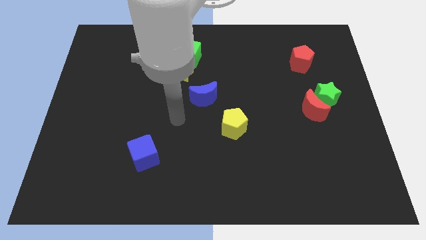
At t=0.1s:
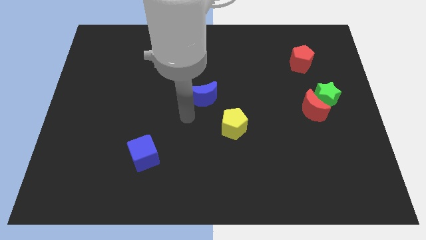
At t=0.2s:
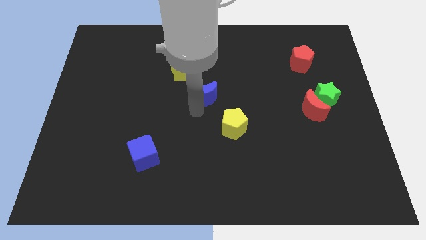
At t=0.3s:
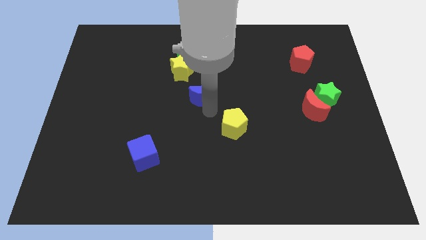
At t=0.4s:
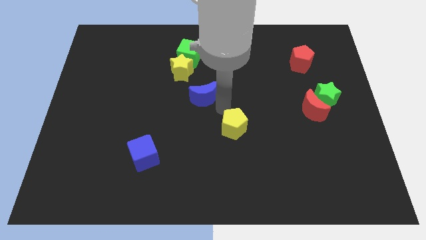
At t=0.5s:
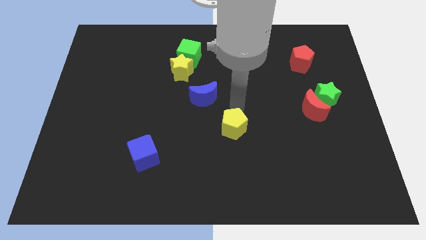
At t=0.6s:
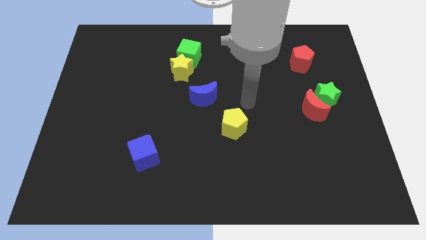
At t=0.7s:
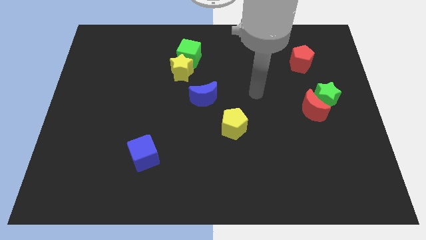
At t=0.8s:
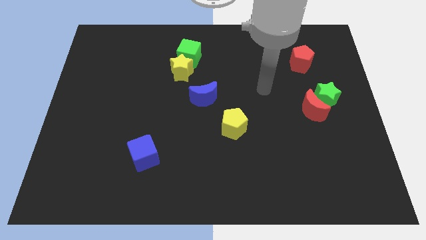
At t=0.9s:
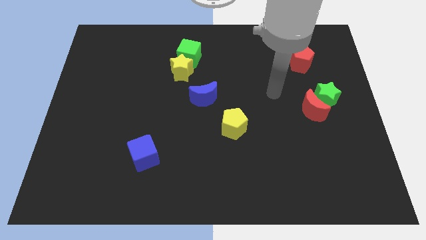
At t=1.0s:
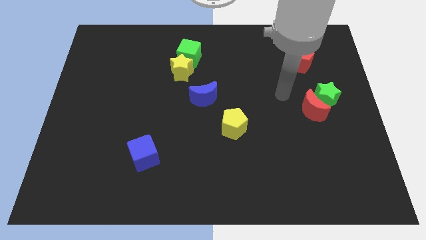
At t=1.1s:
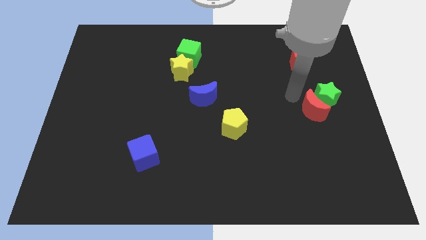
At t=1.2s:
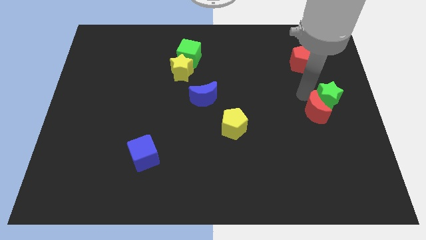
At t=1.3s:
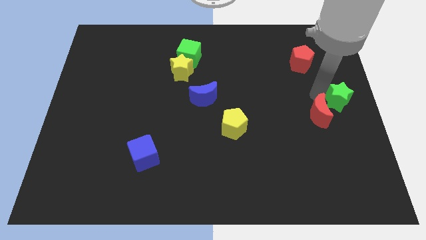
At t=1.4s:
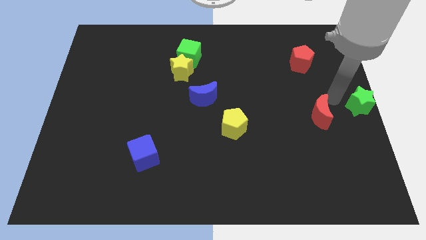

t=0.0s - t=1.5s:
move the red moon away from the green star

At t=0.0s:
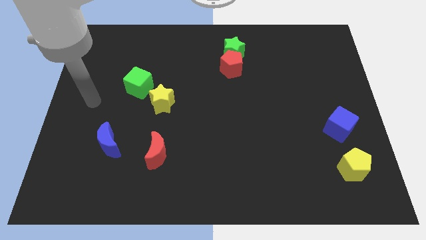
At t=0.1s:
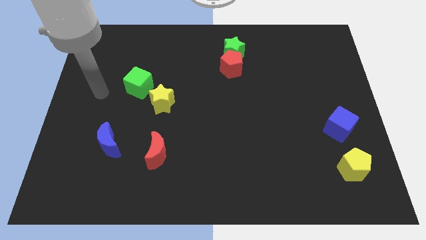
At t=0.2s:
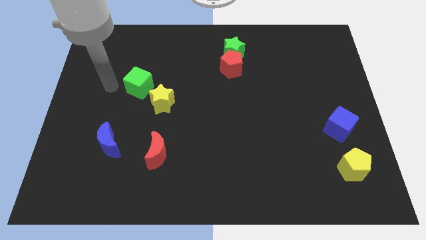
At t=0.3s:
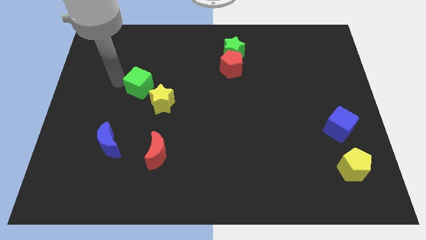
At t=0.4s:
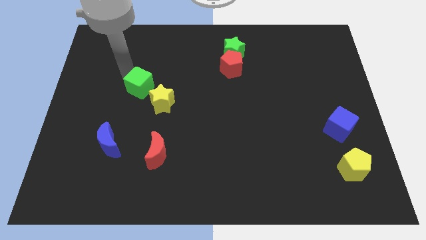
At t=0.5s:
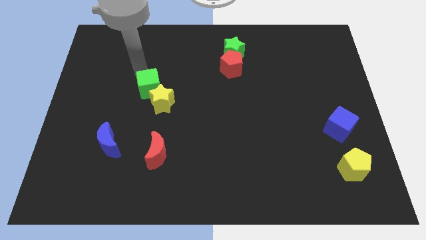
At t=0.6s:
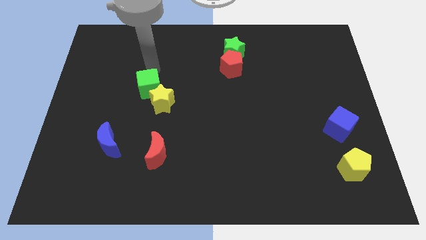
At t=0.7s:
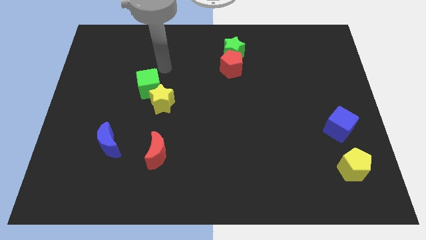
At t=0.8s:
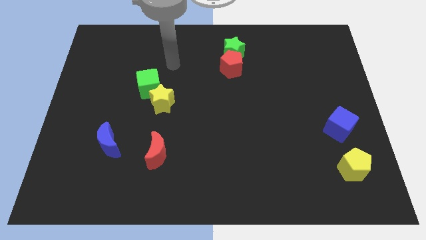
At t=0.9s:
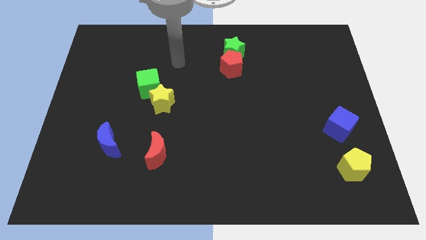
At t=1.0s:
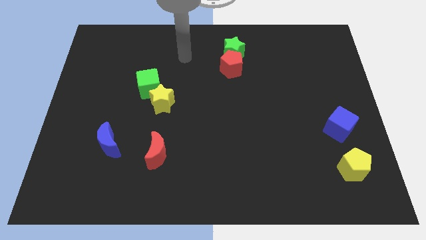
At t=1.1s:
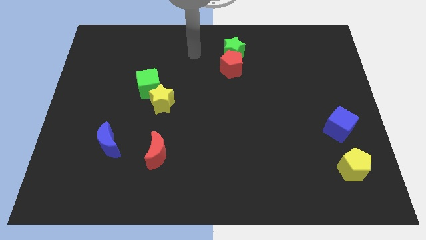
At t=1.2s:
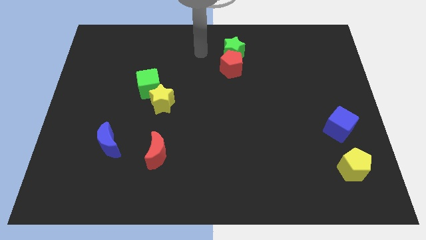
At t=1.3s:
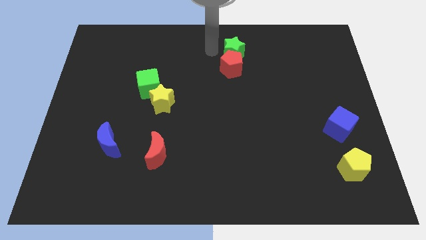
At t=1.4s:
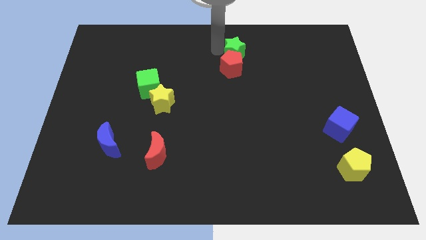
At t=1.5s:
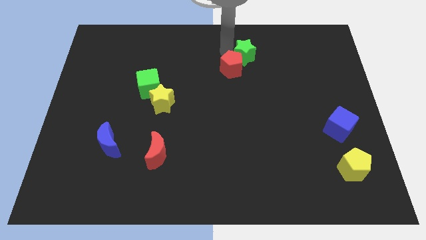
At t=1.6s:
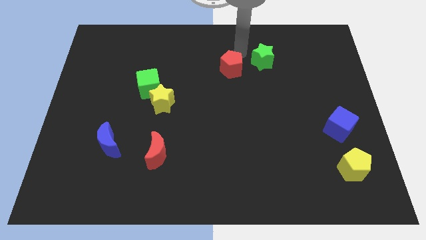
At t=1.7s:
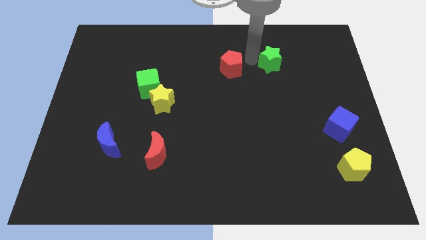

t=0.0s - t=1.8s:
separate the red pentagon from the green star

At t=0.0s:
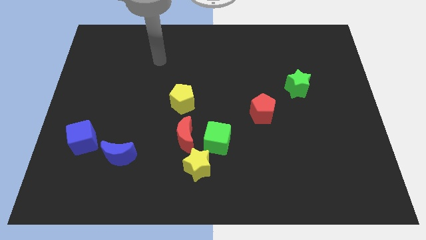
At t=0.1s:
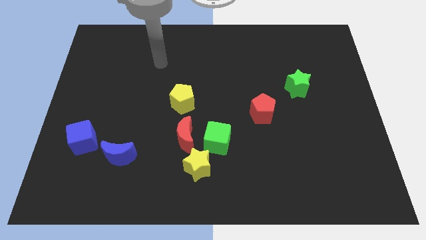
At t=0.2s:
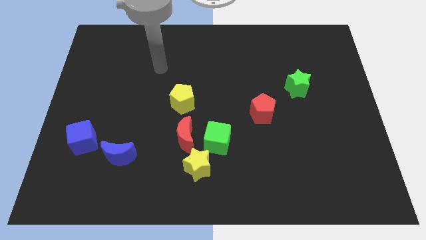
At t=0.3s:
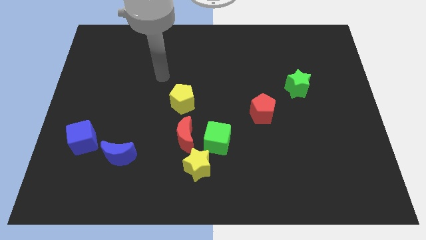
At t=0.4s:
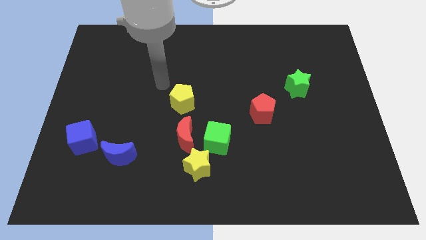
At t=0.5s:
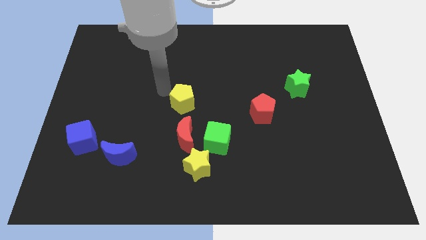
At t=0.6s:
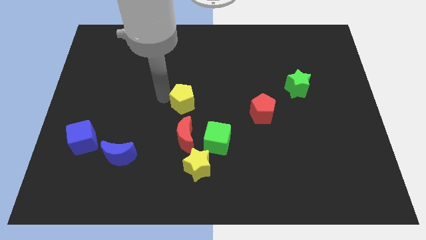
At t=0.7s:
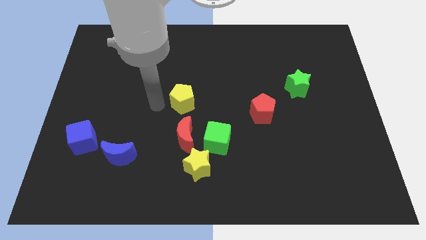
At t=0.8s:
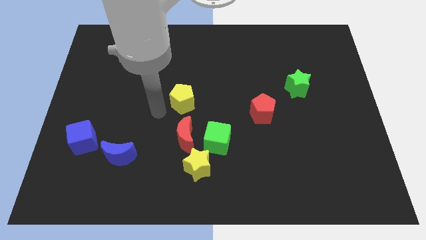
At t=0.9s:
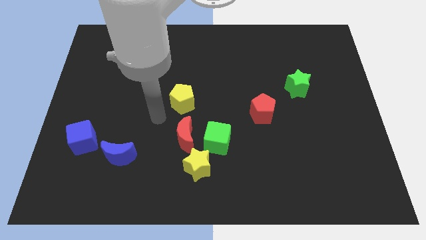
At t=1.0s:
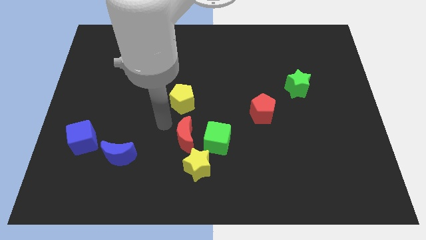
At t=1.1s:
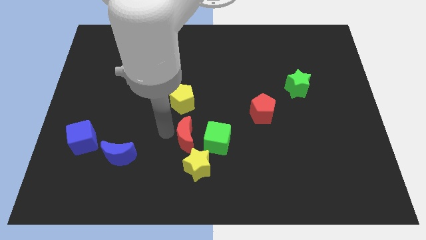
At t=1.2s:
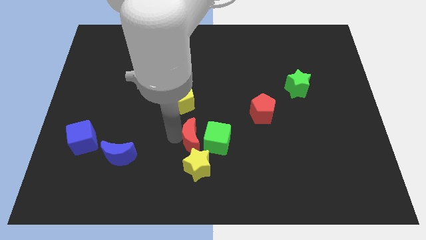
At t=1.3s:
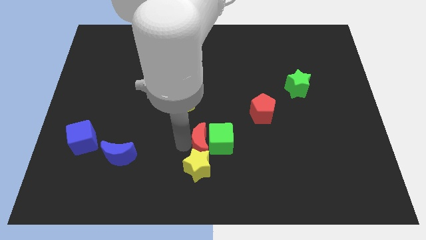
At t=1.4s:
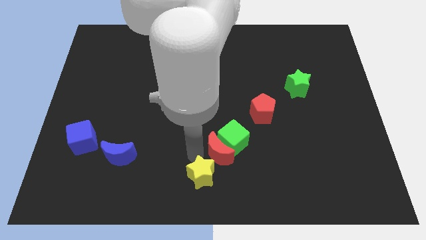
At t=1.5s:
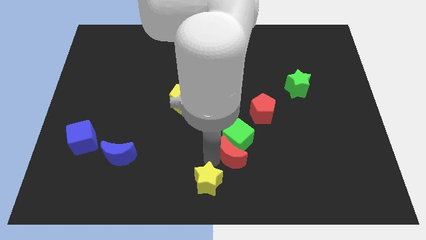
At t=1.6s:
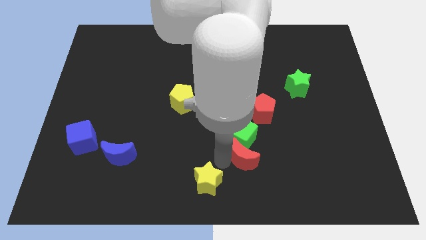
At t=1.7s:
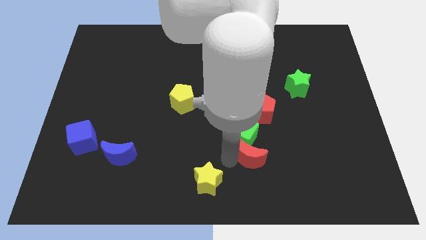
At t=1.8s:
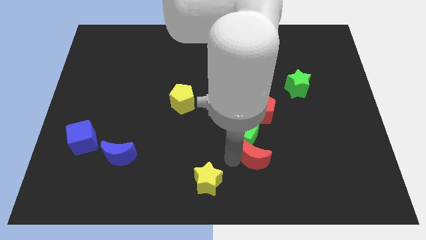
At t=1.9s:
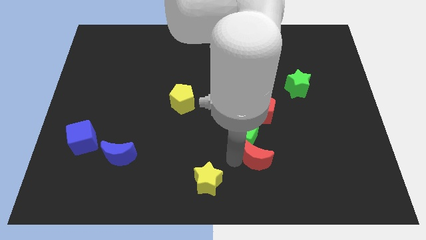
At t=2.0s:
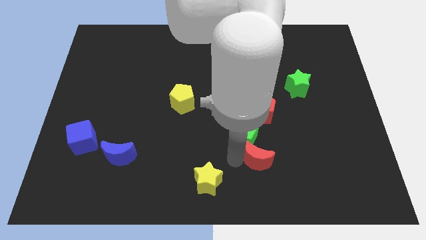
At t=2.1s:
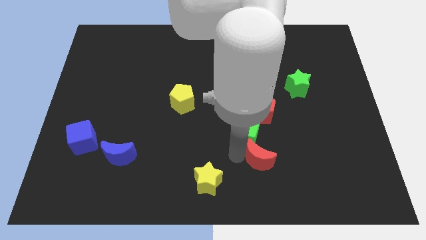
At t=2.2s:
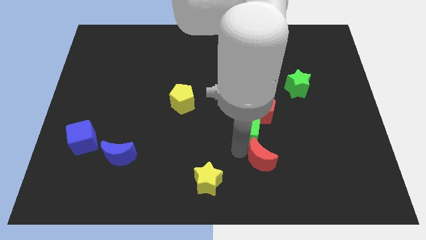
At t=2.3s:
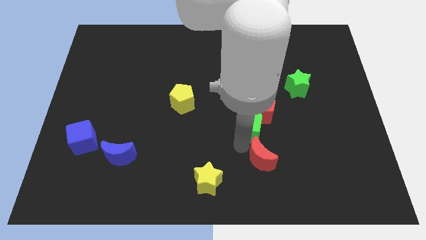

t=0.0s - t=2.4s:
separate the green cube from the red moon and yellow star

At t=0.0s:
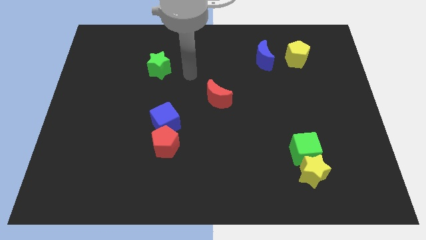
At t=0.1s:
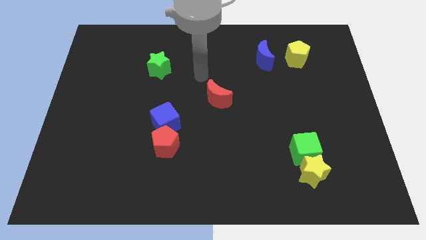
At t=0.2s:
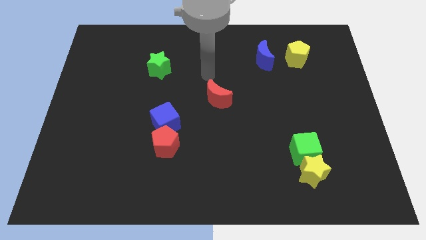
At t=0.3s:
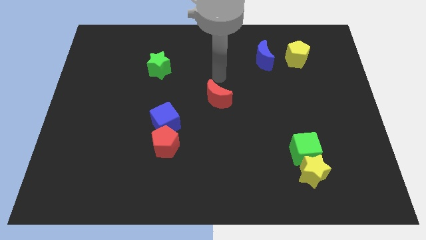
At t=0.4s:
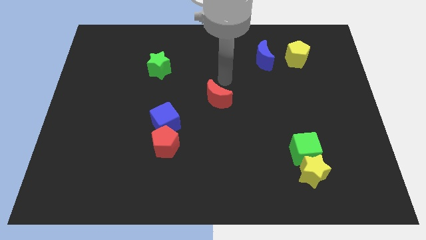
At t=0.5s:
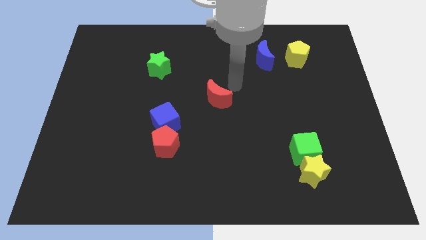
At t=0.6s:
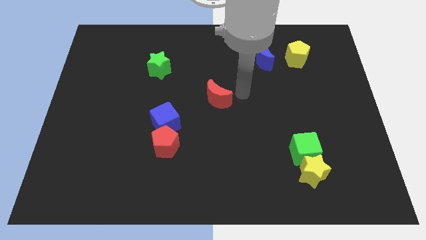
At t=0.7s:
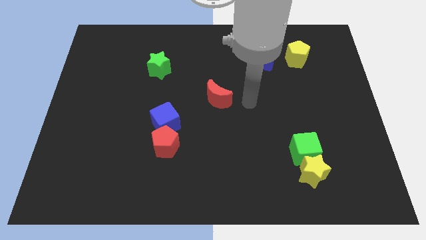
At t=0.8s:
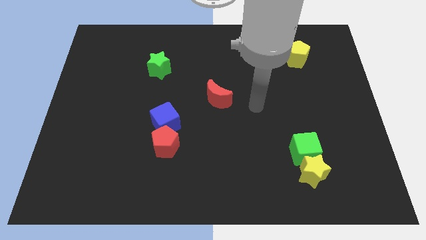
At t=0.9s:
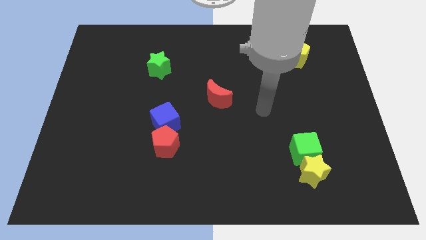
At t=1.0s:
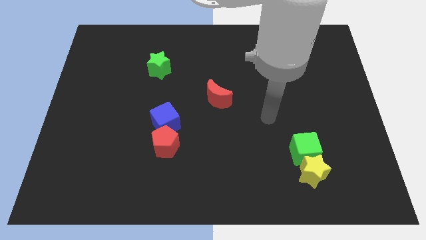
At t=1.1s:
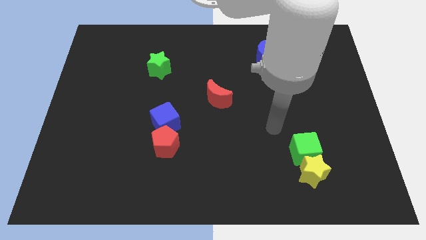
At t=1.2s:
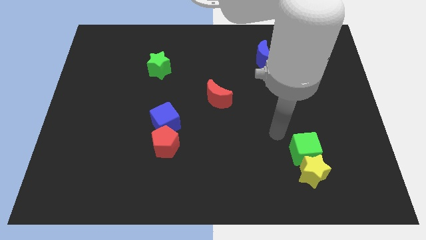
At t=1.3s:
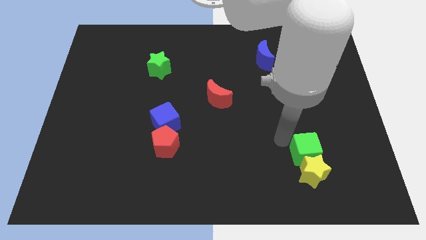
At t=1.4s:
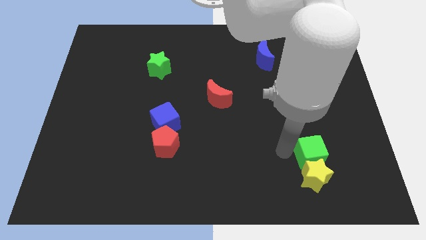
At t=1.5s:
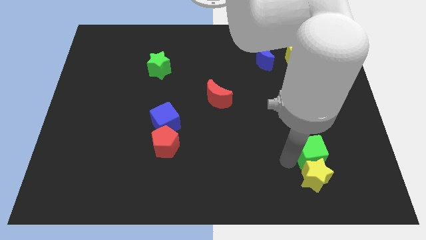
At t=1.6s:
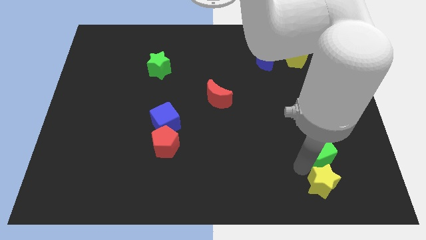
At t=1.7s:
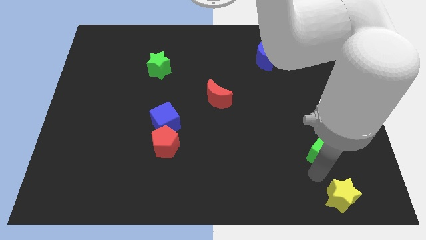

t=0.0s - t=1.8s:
pull the green cube apart from the yellow star

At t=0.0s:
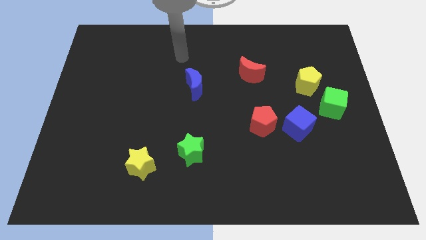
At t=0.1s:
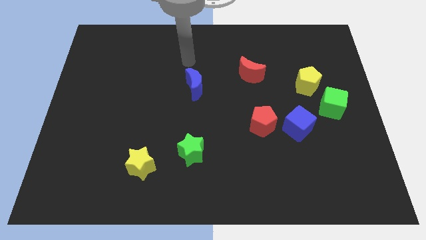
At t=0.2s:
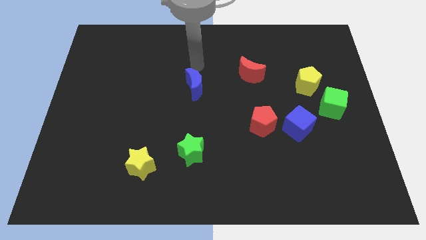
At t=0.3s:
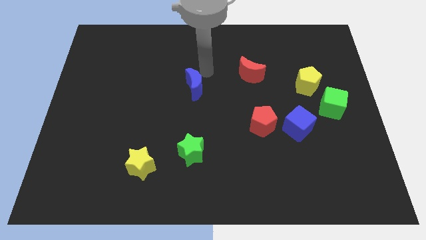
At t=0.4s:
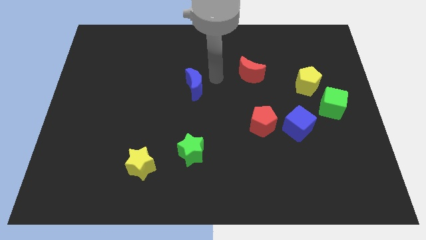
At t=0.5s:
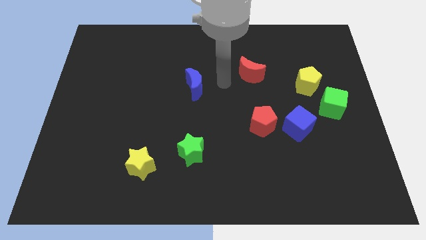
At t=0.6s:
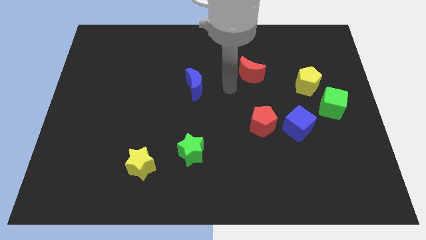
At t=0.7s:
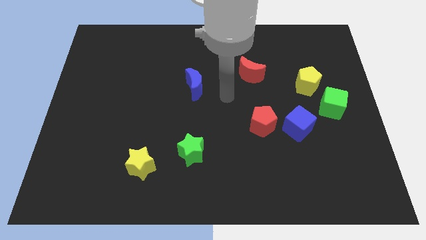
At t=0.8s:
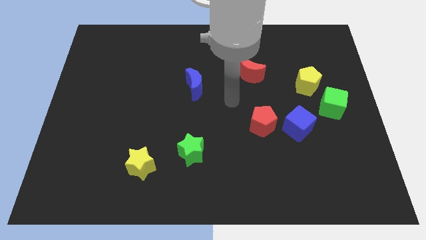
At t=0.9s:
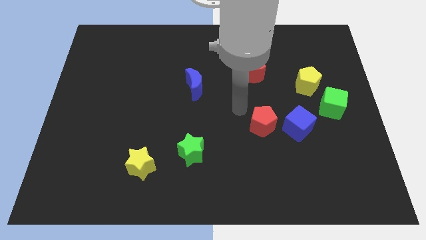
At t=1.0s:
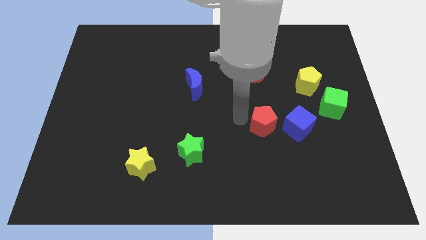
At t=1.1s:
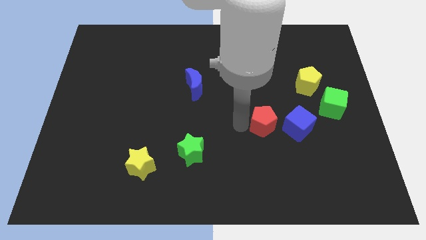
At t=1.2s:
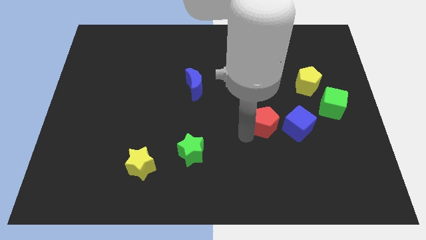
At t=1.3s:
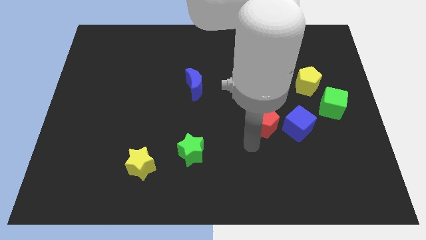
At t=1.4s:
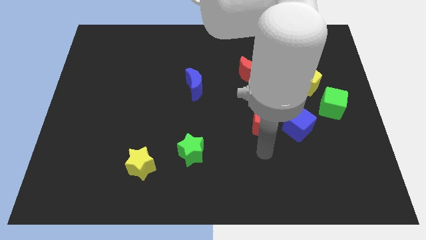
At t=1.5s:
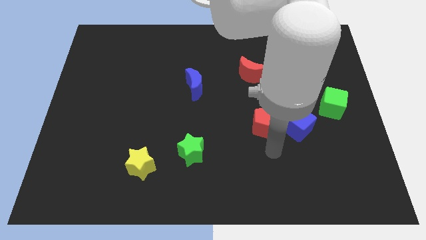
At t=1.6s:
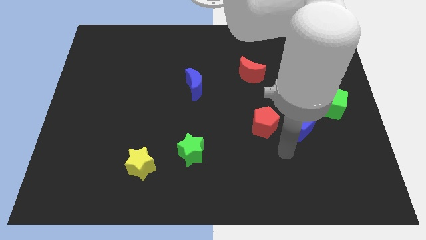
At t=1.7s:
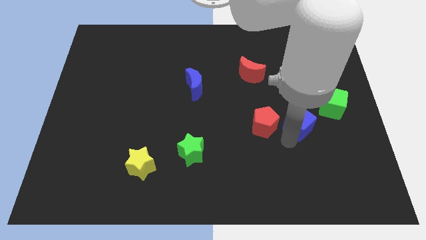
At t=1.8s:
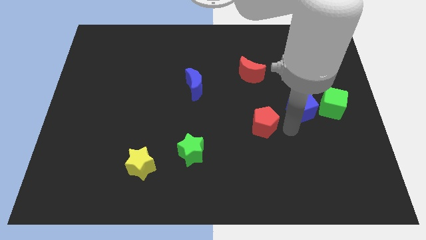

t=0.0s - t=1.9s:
separate the red pentagon from the blue cube

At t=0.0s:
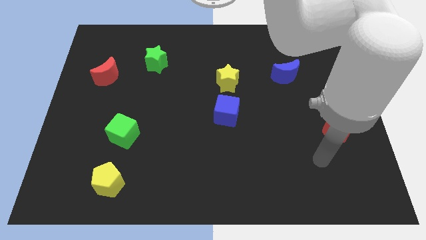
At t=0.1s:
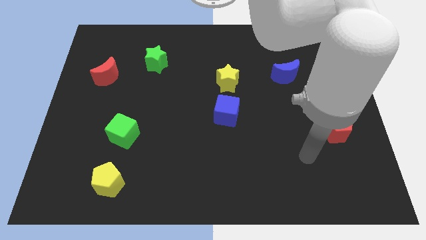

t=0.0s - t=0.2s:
pull the blue cube apart from the yellow star
